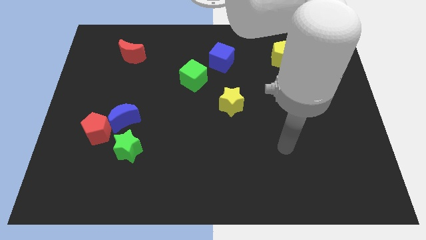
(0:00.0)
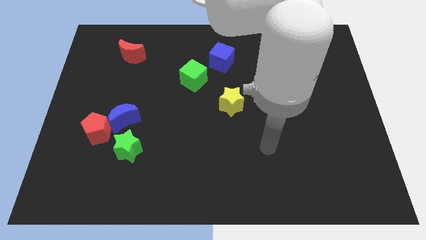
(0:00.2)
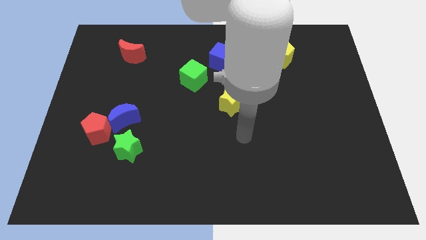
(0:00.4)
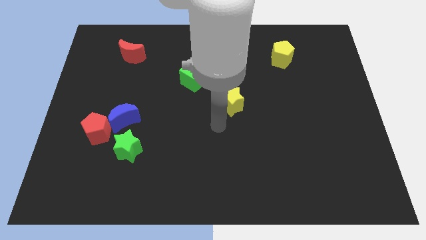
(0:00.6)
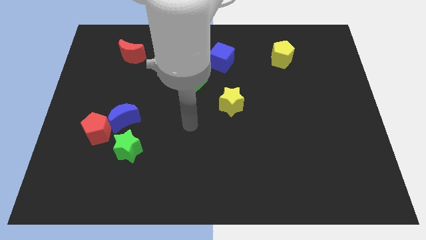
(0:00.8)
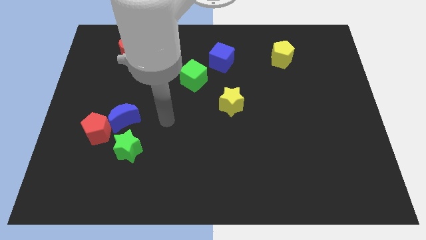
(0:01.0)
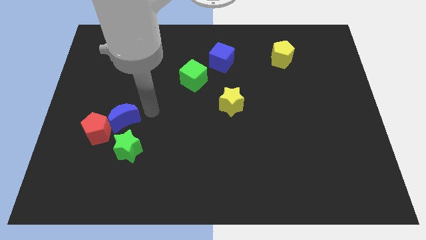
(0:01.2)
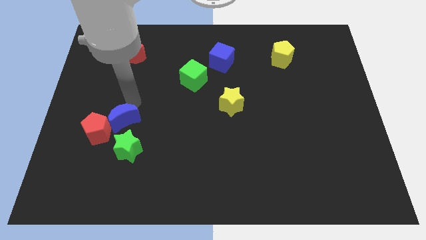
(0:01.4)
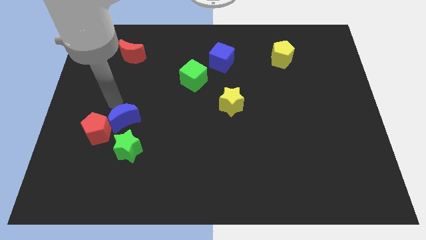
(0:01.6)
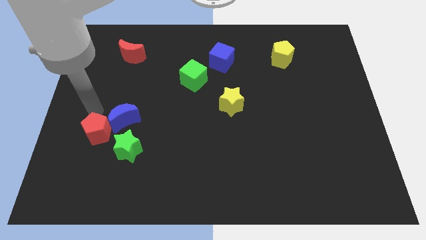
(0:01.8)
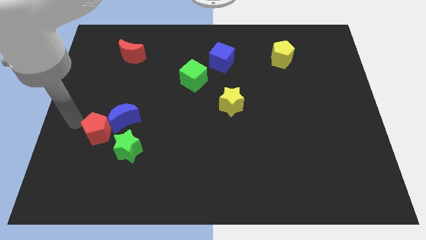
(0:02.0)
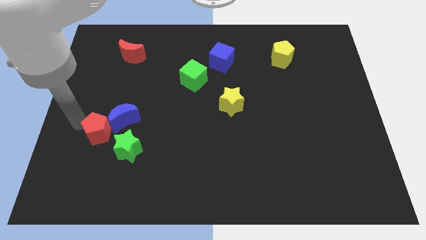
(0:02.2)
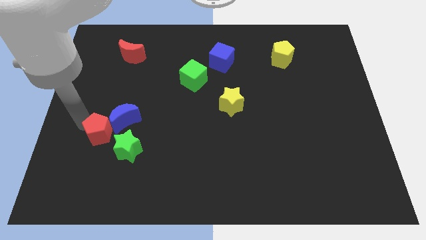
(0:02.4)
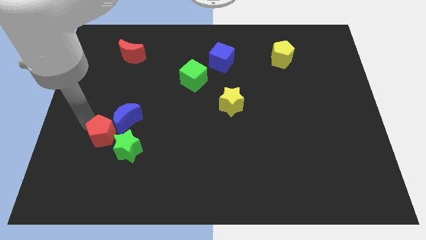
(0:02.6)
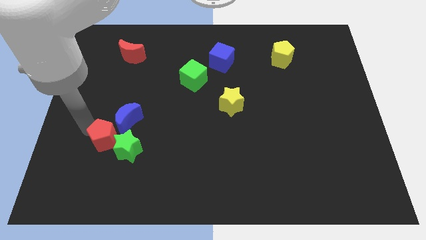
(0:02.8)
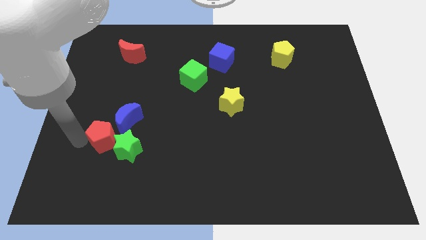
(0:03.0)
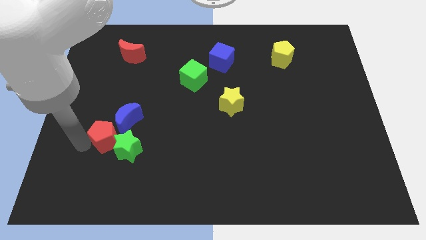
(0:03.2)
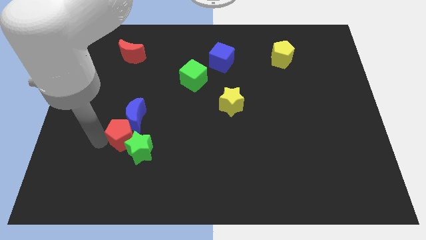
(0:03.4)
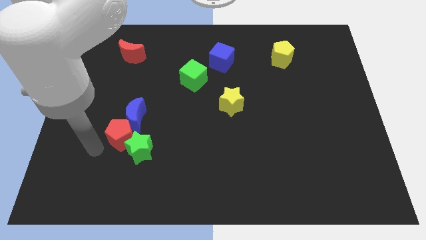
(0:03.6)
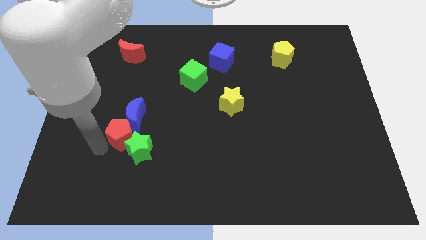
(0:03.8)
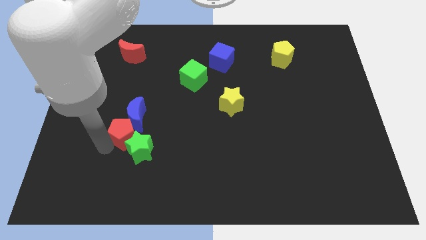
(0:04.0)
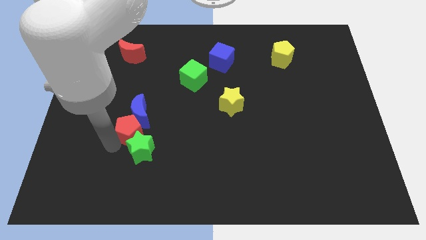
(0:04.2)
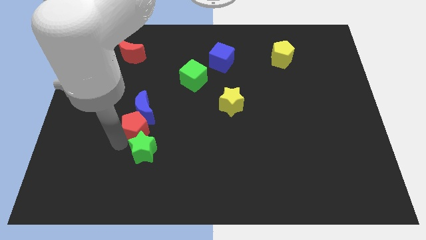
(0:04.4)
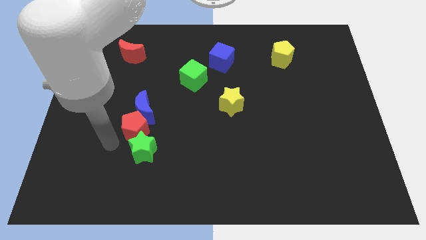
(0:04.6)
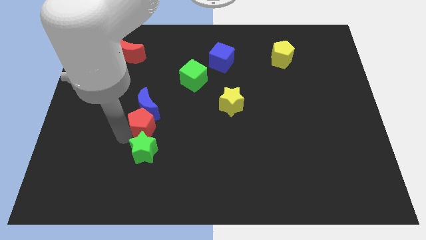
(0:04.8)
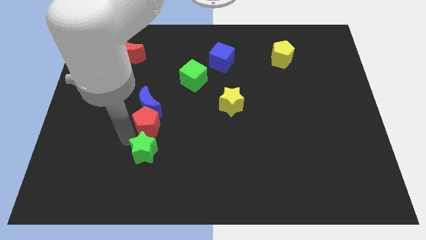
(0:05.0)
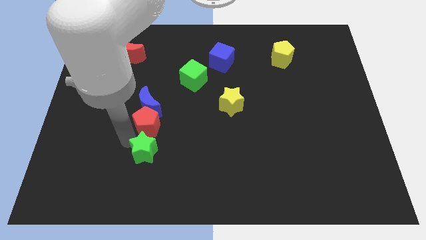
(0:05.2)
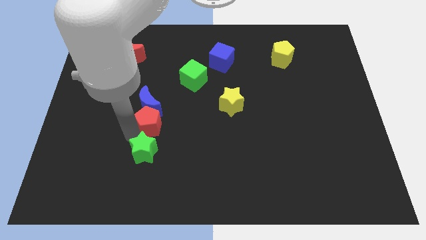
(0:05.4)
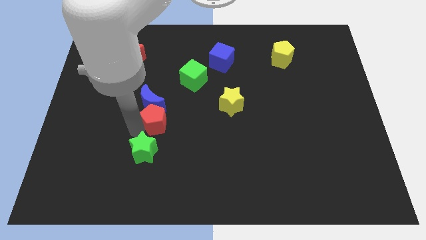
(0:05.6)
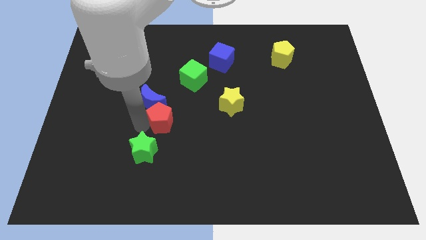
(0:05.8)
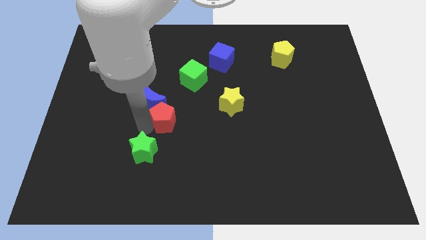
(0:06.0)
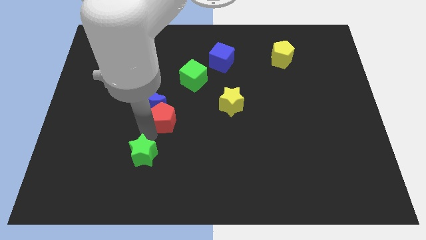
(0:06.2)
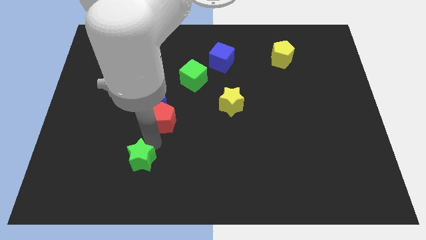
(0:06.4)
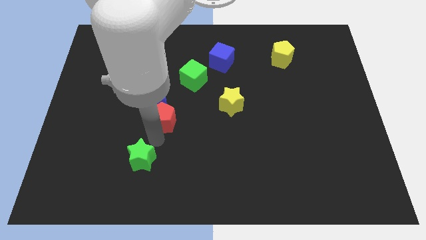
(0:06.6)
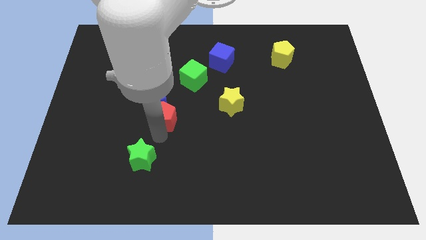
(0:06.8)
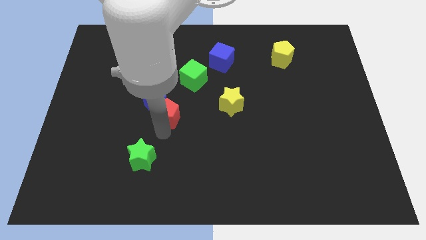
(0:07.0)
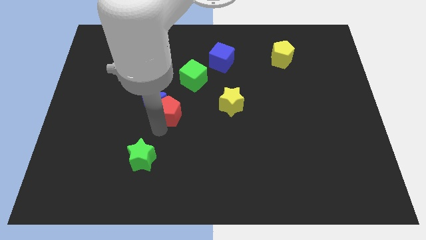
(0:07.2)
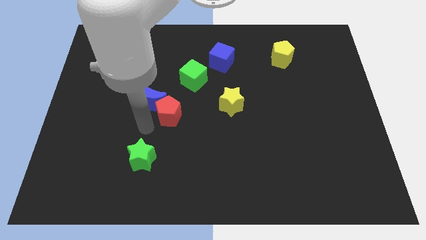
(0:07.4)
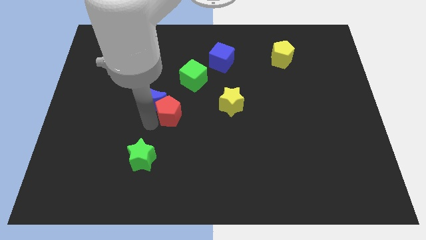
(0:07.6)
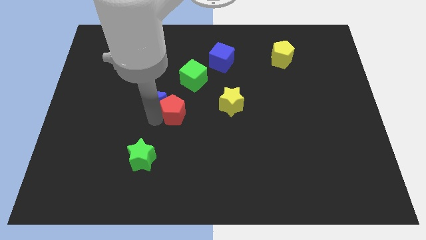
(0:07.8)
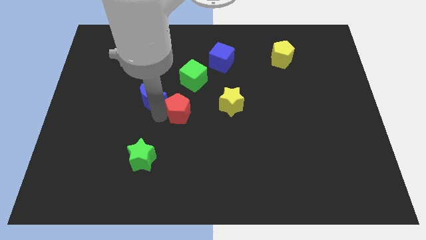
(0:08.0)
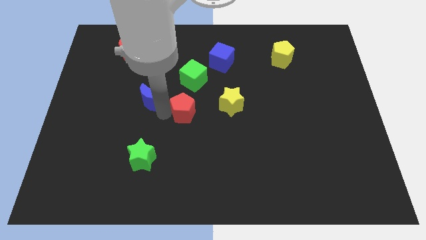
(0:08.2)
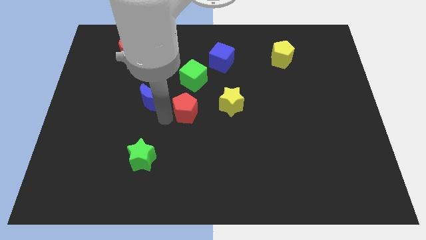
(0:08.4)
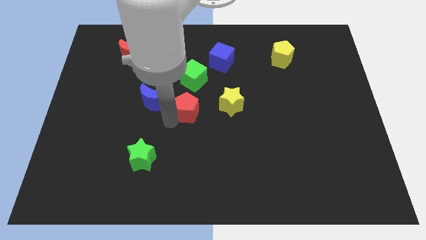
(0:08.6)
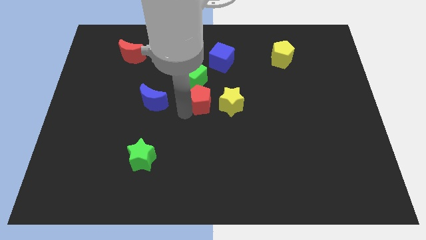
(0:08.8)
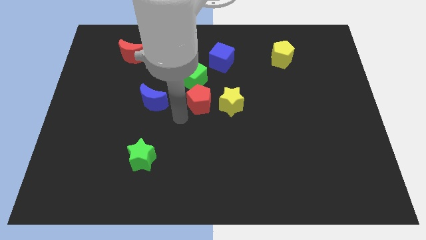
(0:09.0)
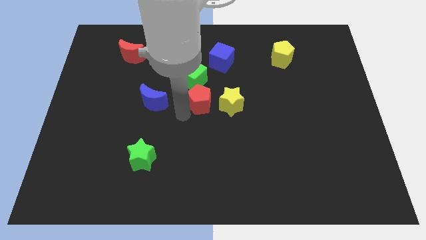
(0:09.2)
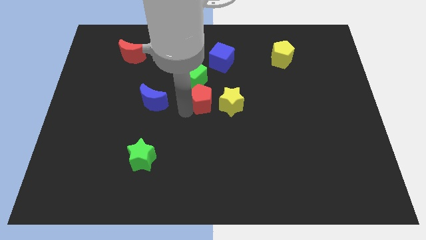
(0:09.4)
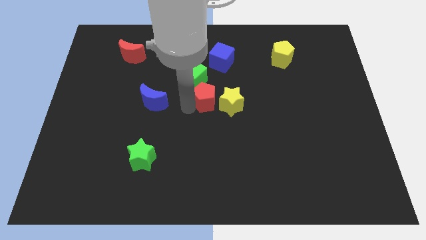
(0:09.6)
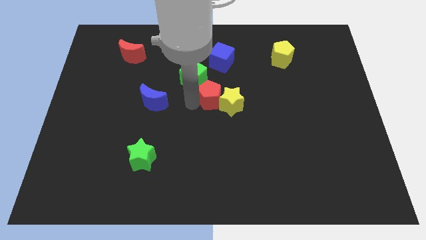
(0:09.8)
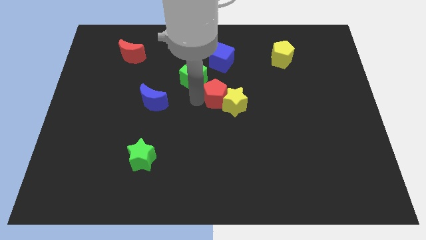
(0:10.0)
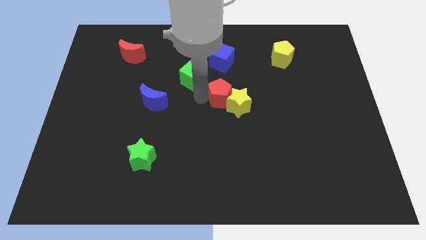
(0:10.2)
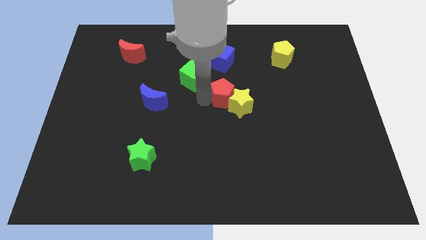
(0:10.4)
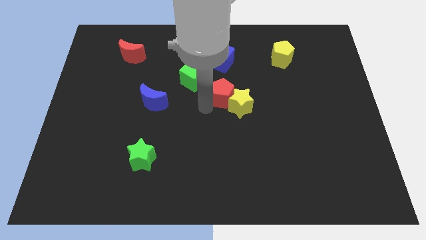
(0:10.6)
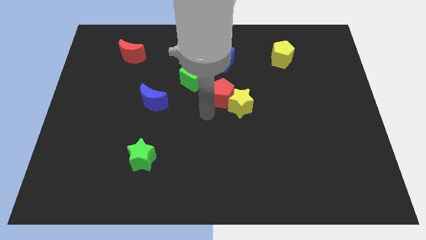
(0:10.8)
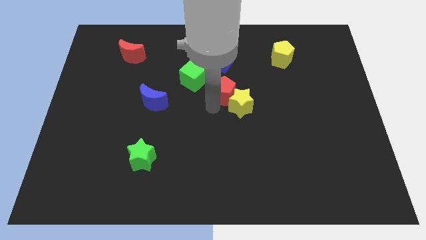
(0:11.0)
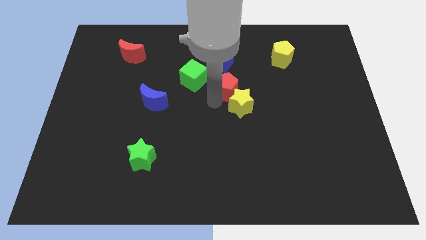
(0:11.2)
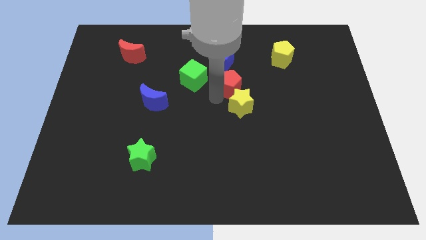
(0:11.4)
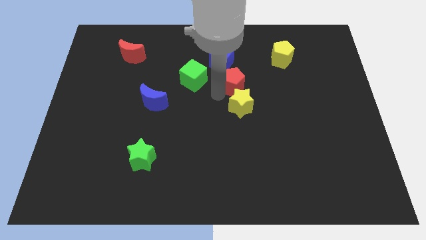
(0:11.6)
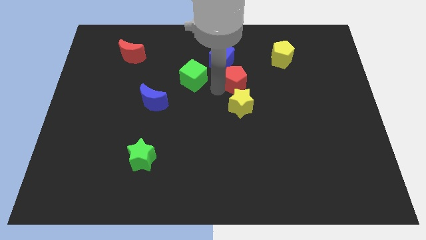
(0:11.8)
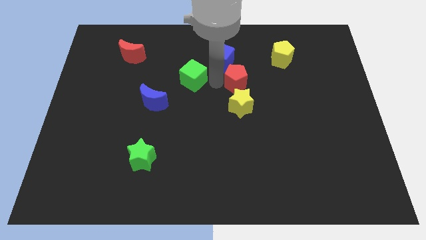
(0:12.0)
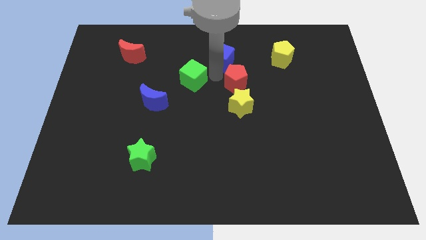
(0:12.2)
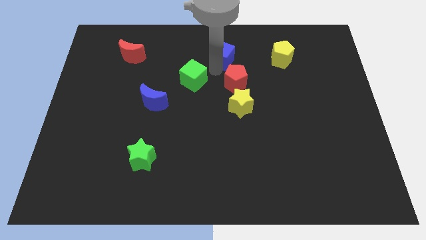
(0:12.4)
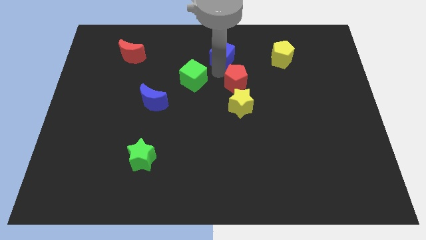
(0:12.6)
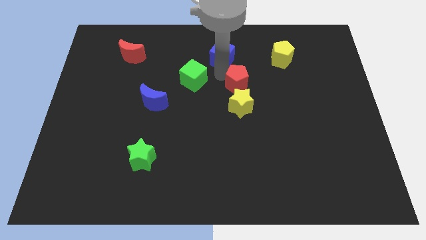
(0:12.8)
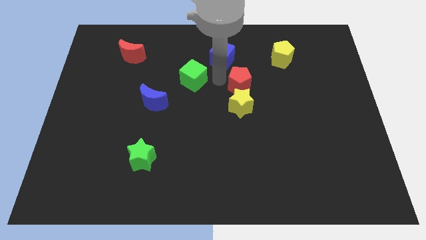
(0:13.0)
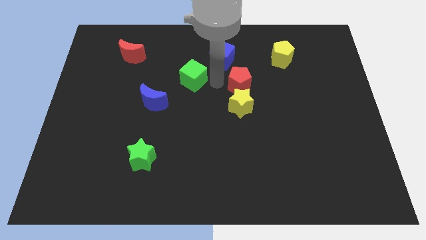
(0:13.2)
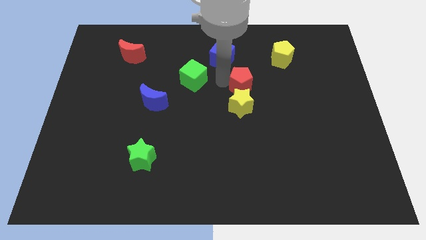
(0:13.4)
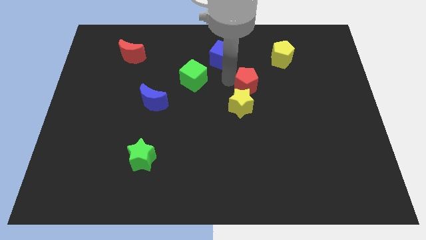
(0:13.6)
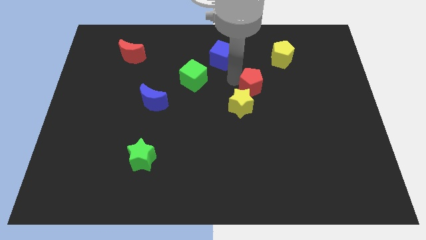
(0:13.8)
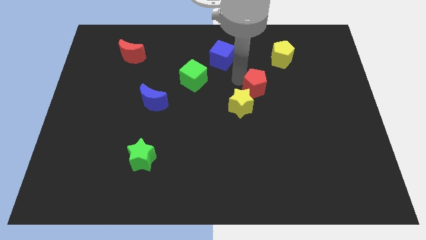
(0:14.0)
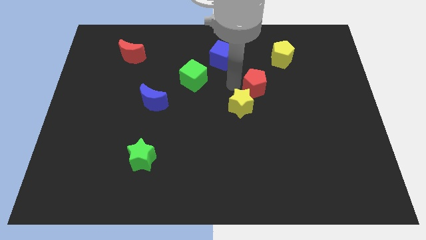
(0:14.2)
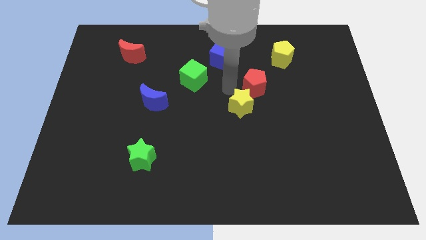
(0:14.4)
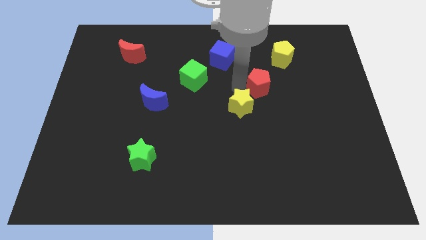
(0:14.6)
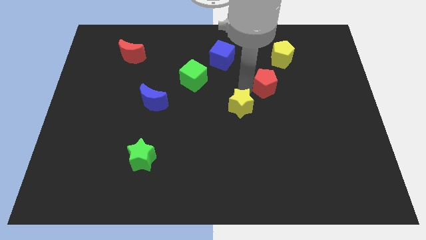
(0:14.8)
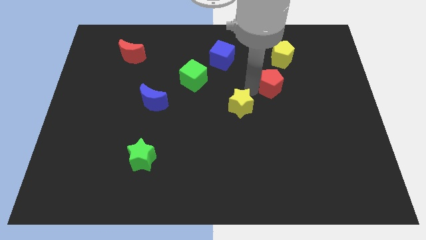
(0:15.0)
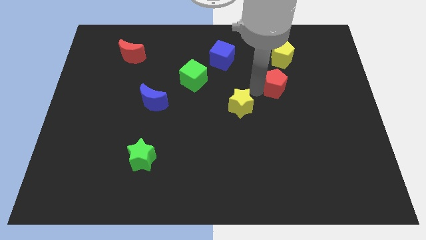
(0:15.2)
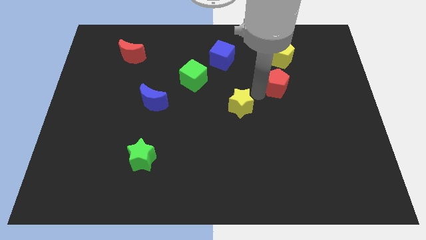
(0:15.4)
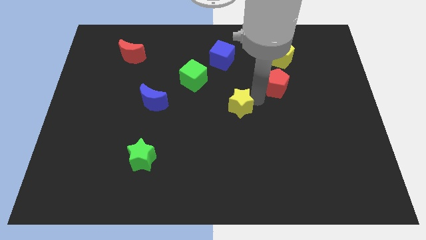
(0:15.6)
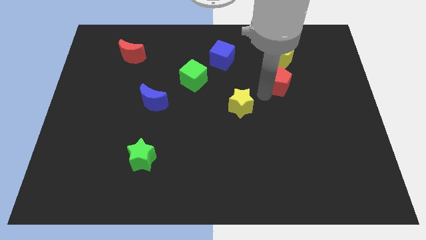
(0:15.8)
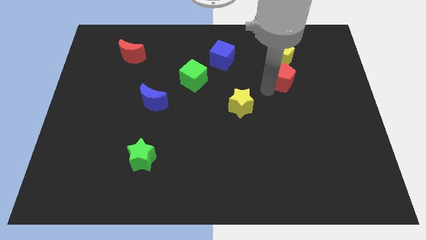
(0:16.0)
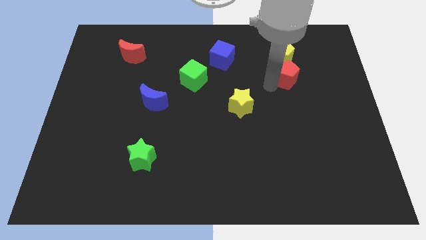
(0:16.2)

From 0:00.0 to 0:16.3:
slide the red pentagon to the bottom right side of the yellow pentagon
